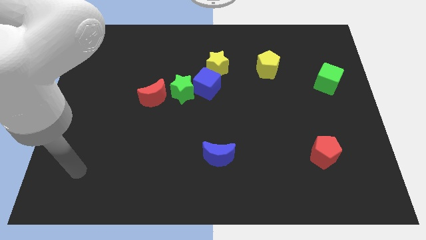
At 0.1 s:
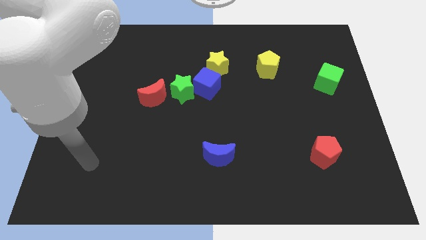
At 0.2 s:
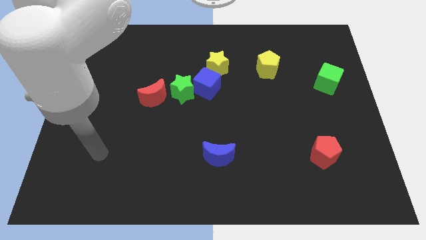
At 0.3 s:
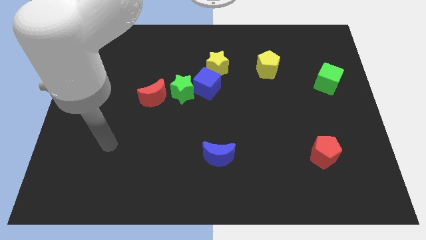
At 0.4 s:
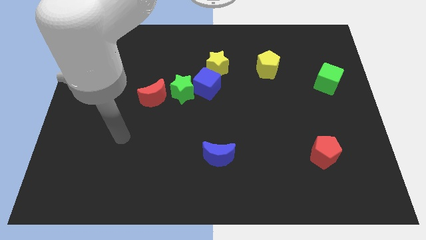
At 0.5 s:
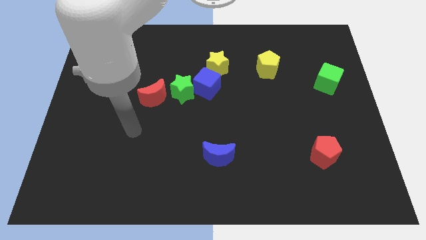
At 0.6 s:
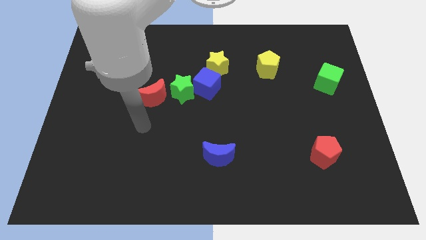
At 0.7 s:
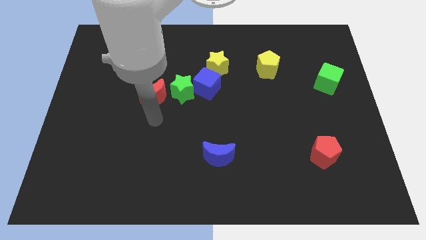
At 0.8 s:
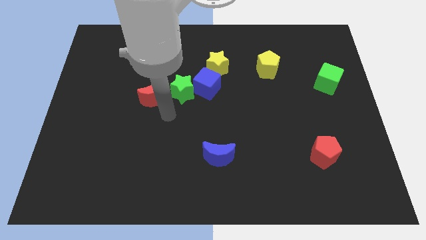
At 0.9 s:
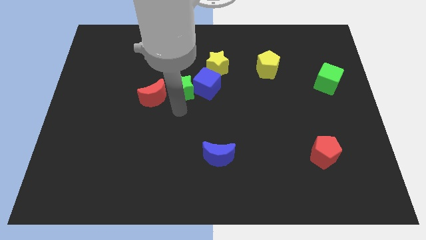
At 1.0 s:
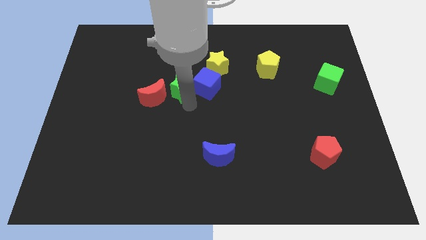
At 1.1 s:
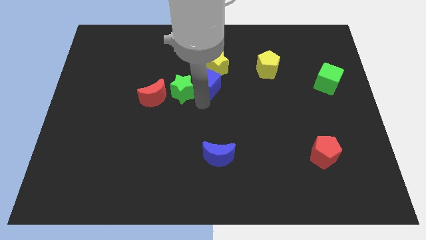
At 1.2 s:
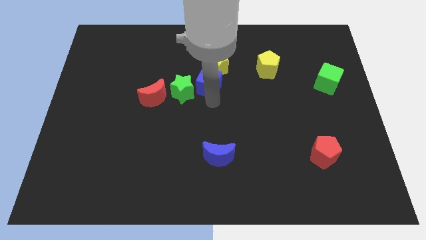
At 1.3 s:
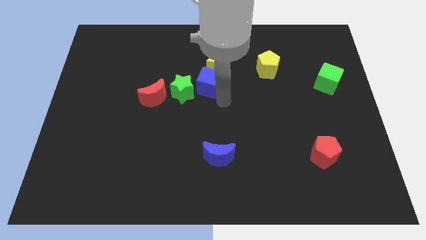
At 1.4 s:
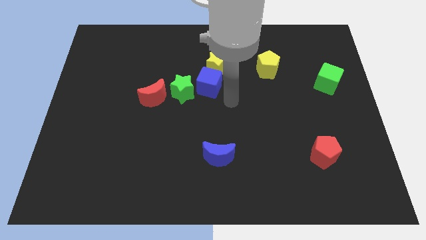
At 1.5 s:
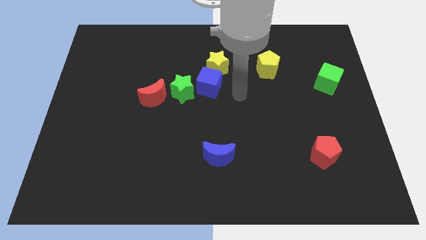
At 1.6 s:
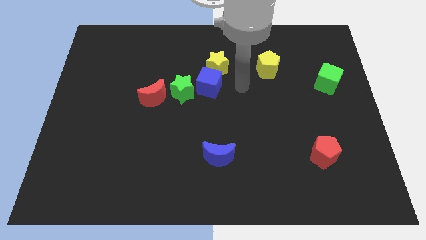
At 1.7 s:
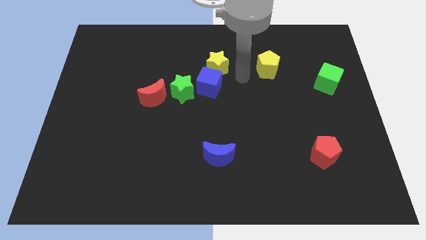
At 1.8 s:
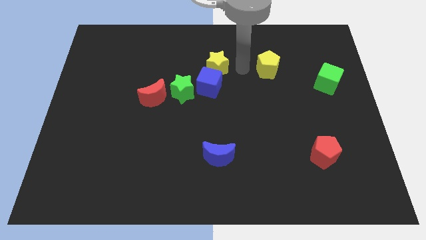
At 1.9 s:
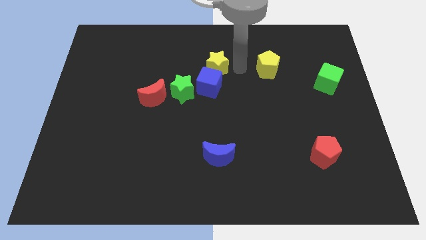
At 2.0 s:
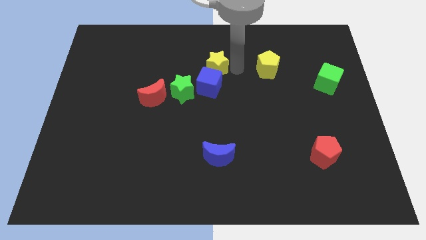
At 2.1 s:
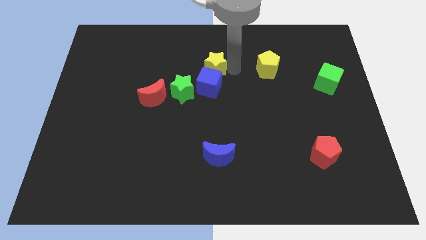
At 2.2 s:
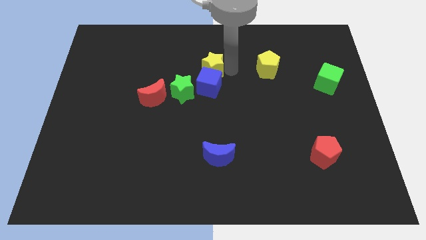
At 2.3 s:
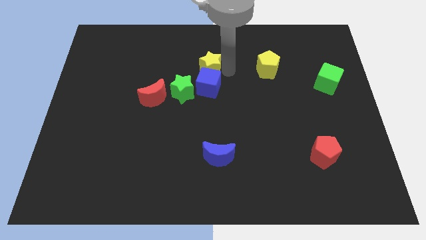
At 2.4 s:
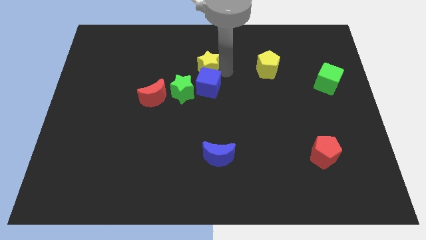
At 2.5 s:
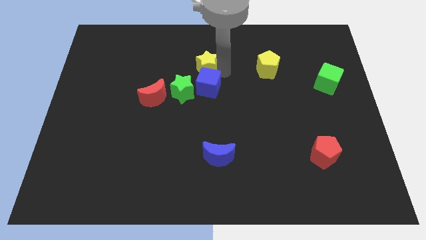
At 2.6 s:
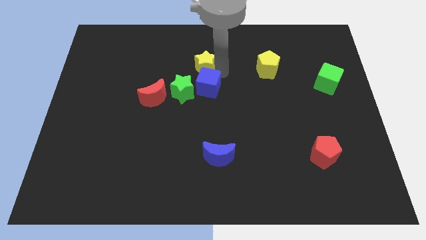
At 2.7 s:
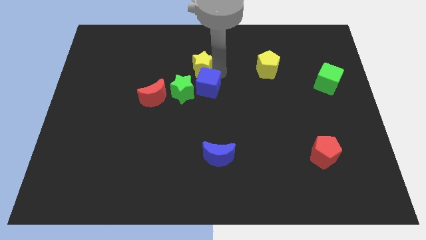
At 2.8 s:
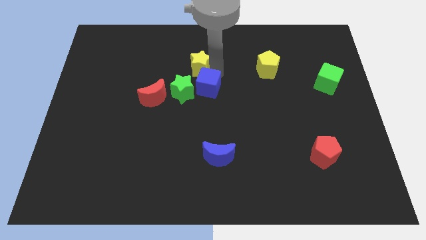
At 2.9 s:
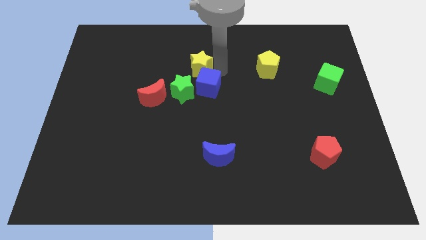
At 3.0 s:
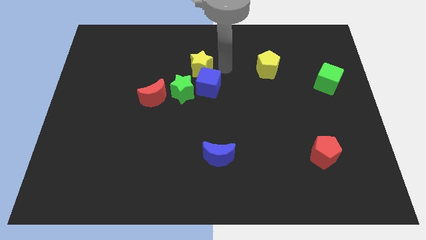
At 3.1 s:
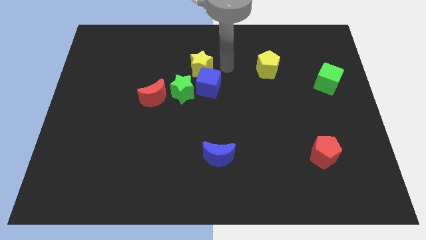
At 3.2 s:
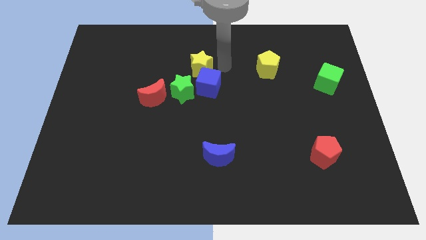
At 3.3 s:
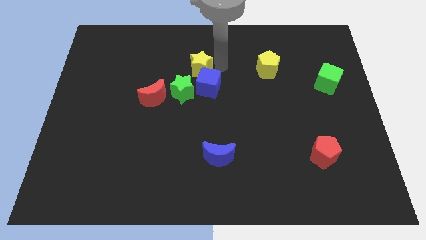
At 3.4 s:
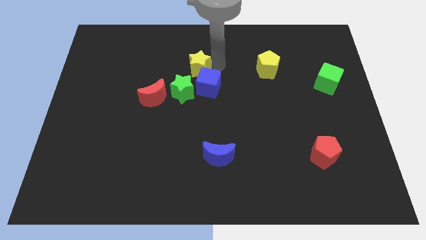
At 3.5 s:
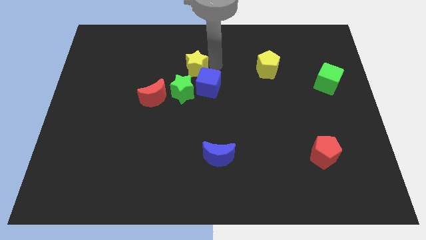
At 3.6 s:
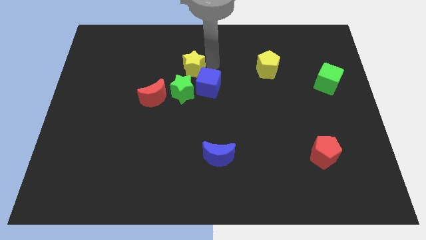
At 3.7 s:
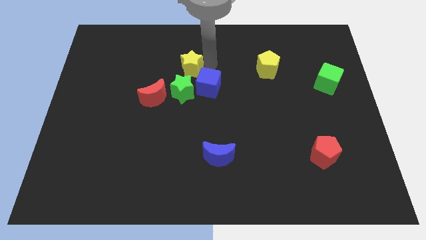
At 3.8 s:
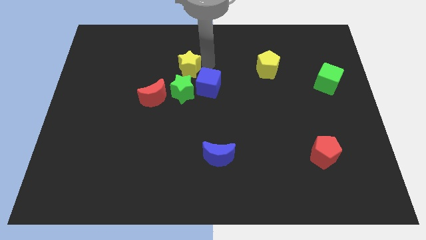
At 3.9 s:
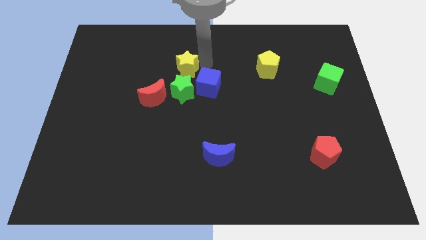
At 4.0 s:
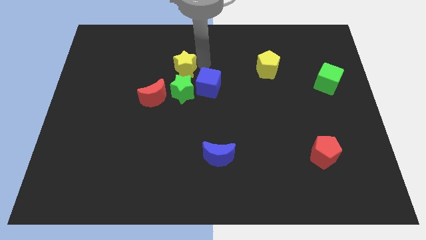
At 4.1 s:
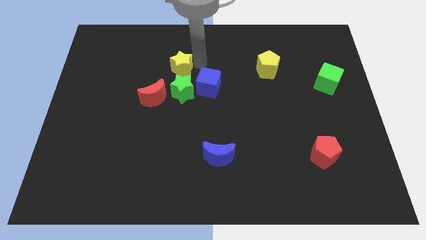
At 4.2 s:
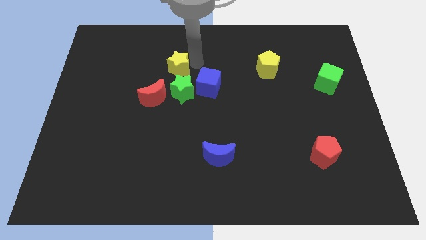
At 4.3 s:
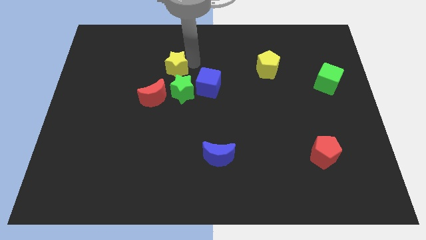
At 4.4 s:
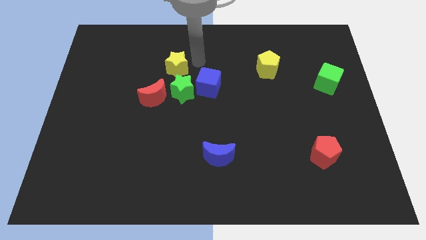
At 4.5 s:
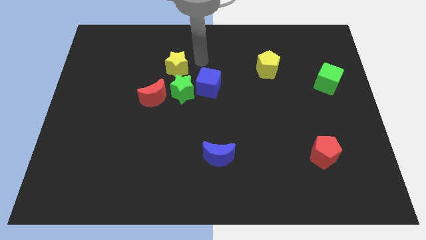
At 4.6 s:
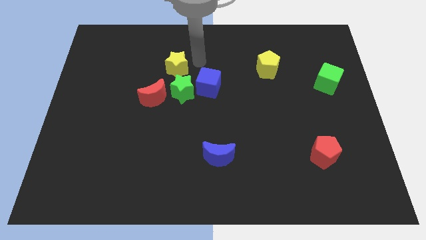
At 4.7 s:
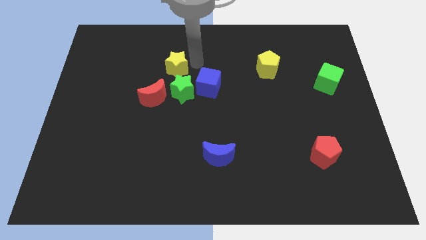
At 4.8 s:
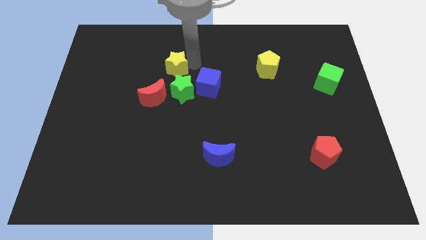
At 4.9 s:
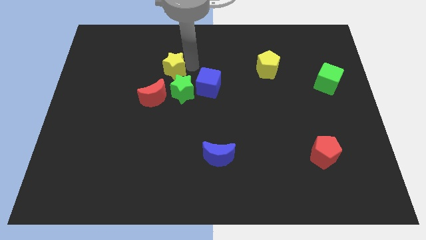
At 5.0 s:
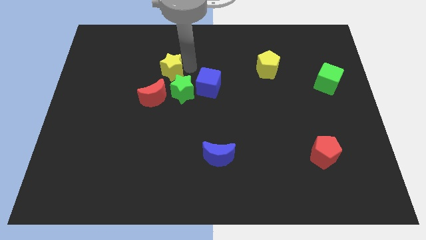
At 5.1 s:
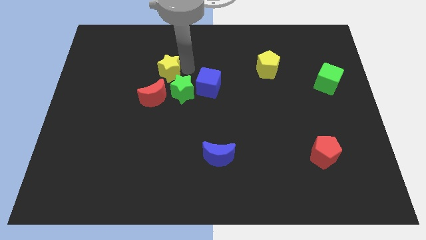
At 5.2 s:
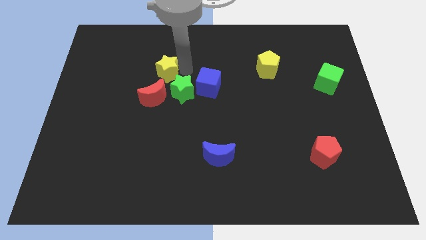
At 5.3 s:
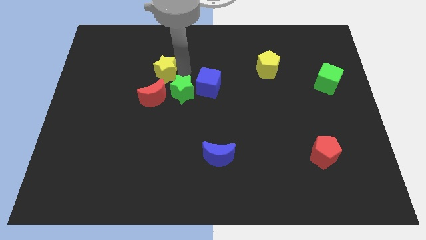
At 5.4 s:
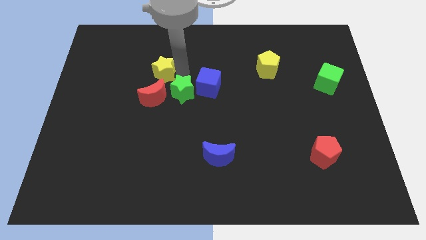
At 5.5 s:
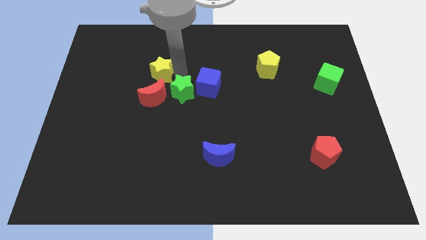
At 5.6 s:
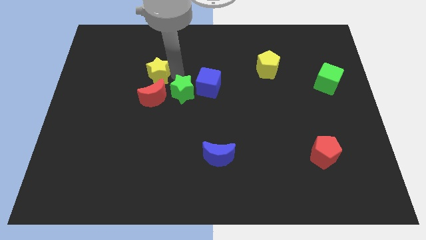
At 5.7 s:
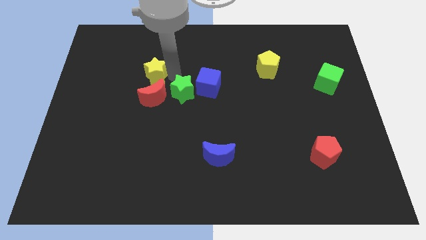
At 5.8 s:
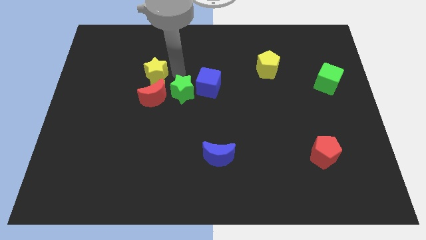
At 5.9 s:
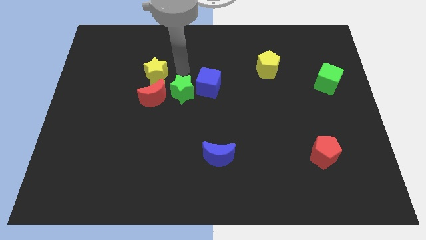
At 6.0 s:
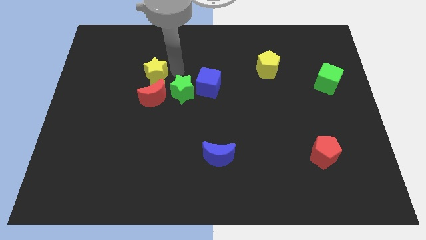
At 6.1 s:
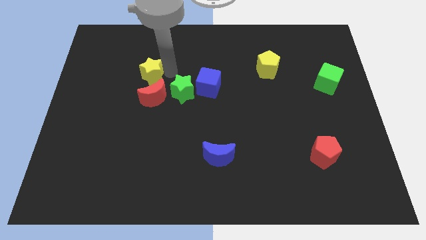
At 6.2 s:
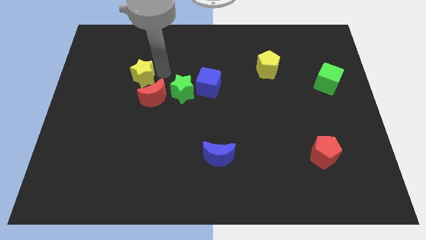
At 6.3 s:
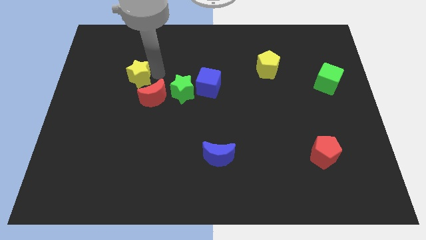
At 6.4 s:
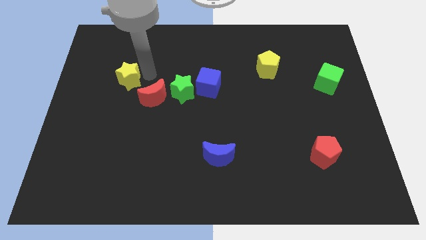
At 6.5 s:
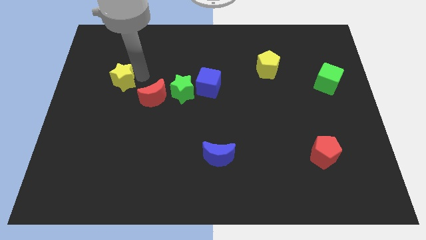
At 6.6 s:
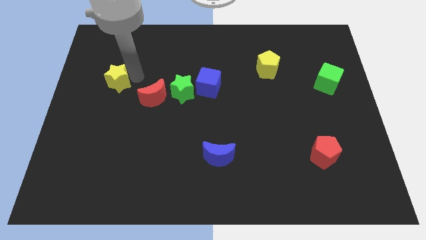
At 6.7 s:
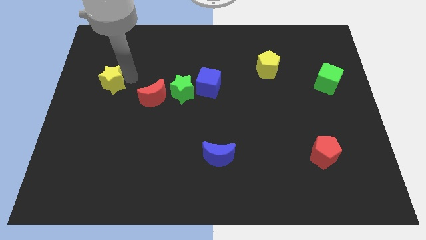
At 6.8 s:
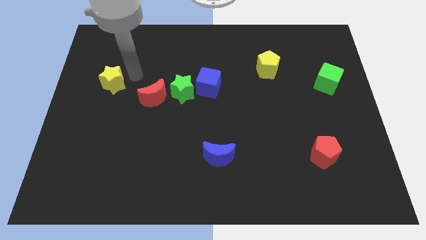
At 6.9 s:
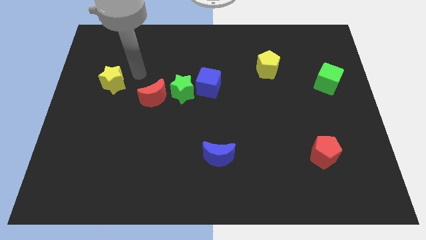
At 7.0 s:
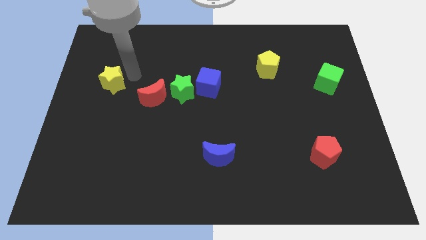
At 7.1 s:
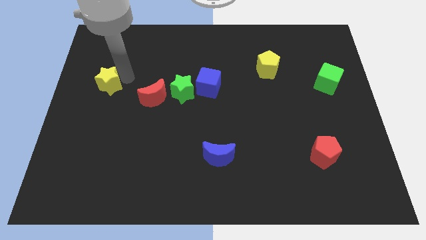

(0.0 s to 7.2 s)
push the yellow star to the left side
